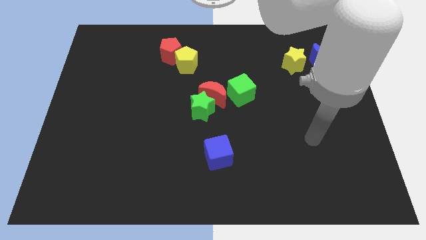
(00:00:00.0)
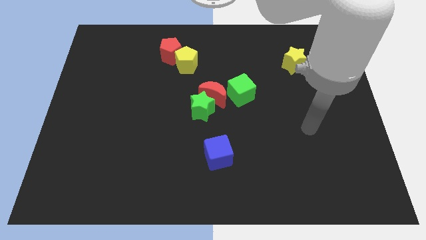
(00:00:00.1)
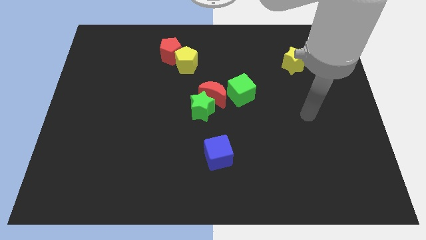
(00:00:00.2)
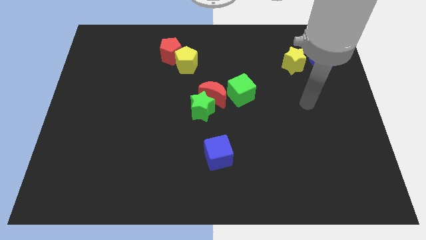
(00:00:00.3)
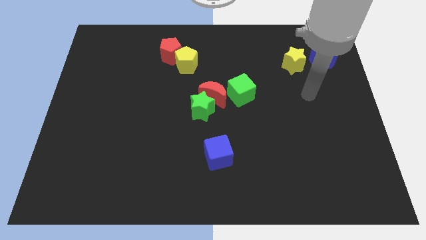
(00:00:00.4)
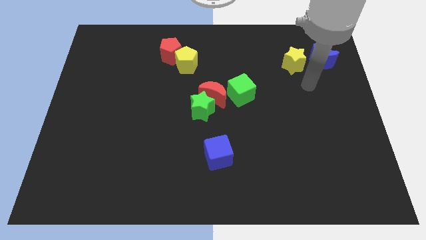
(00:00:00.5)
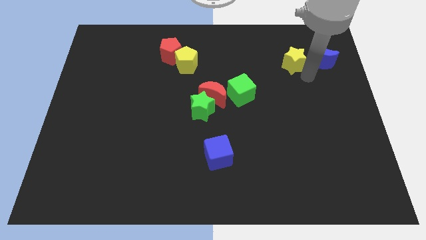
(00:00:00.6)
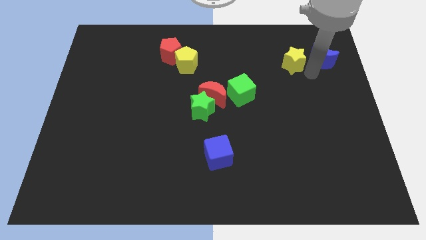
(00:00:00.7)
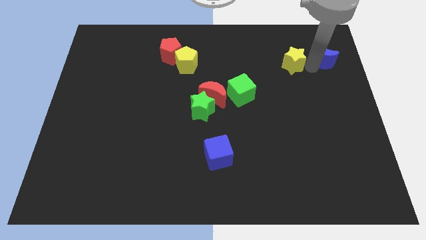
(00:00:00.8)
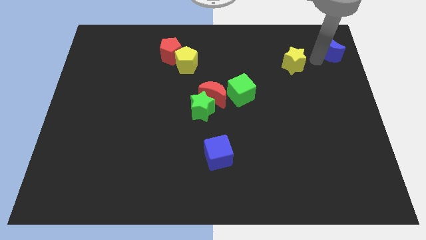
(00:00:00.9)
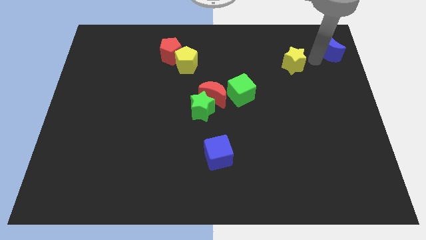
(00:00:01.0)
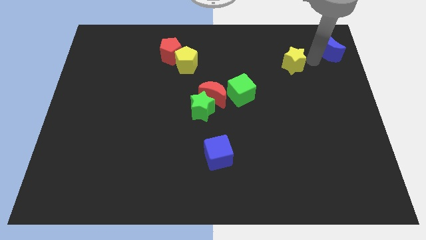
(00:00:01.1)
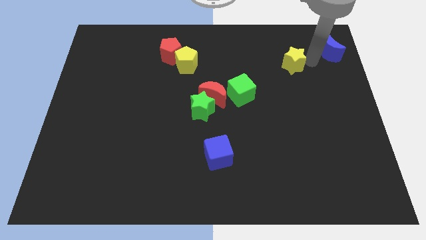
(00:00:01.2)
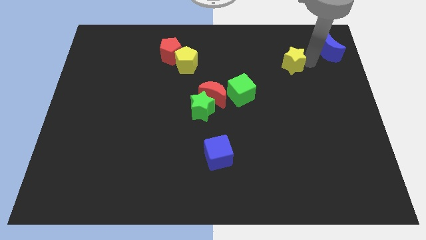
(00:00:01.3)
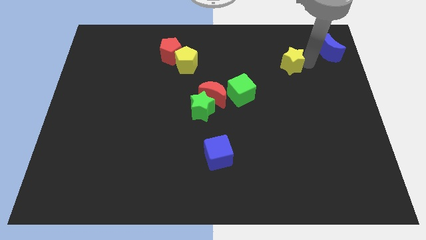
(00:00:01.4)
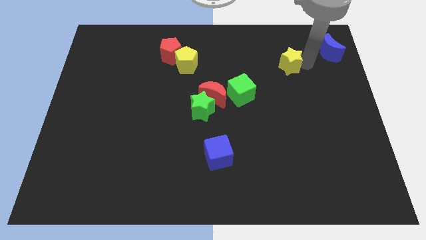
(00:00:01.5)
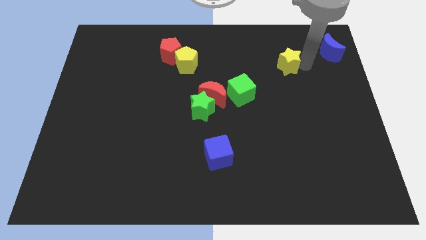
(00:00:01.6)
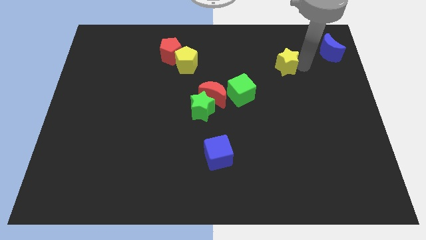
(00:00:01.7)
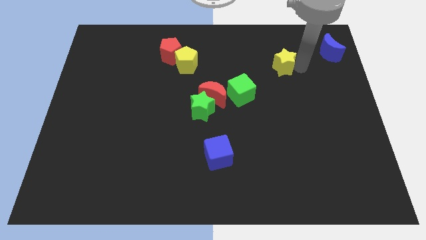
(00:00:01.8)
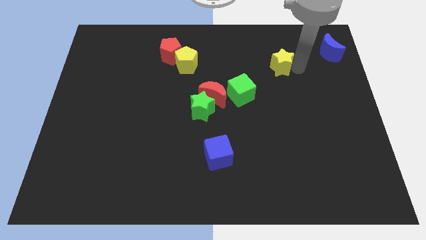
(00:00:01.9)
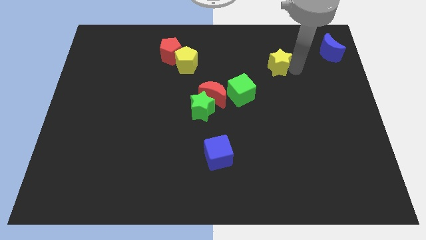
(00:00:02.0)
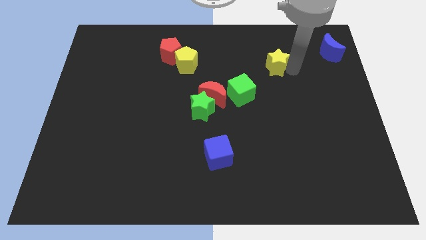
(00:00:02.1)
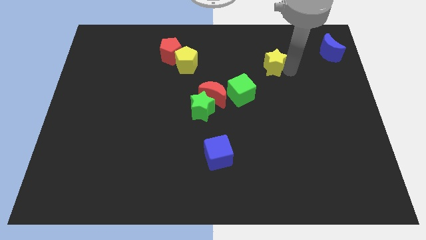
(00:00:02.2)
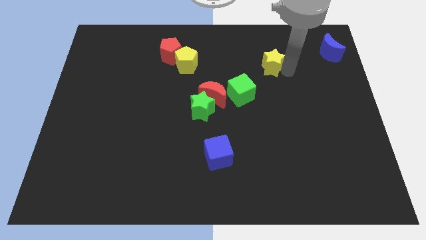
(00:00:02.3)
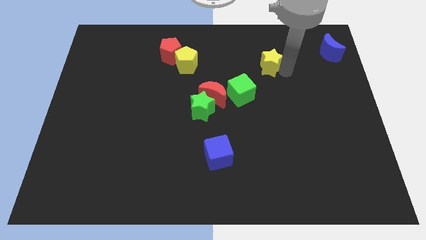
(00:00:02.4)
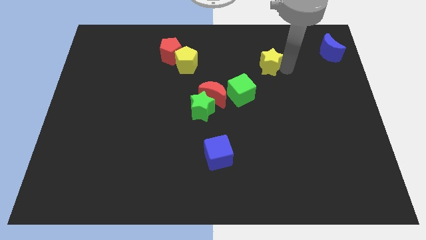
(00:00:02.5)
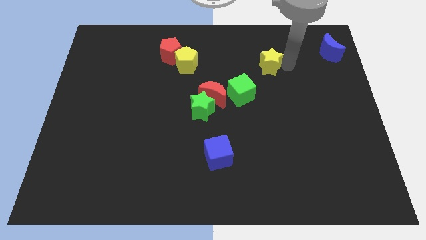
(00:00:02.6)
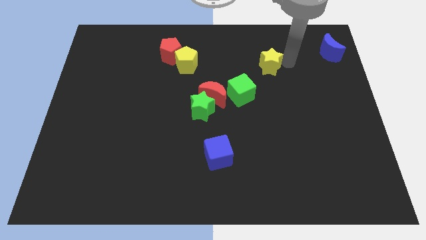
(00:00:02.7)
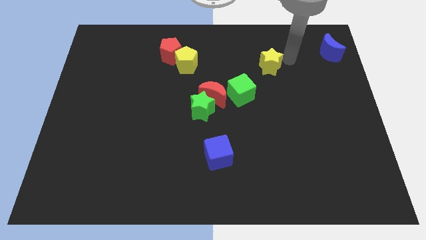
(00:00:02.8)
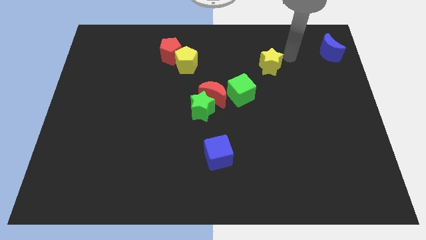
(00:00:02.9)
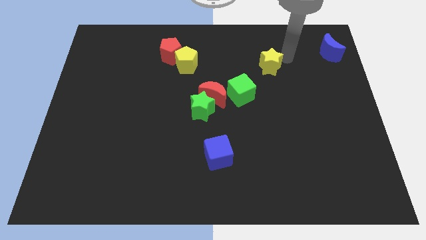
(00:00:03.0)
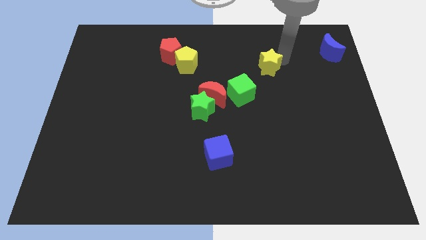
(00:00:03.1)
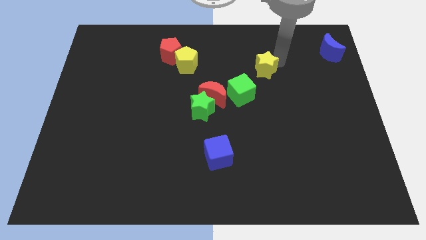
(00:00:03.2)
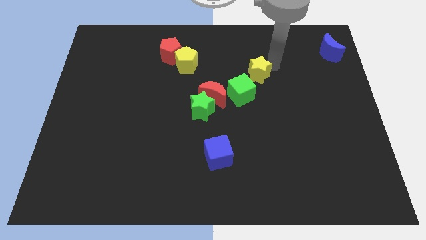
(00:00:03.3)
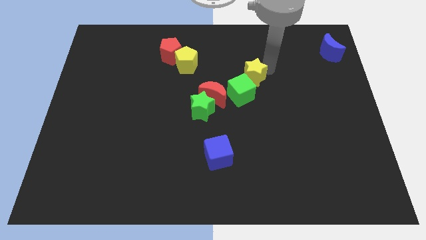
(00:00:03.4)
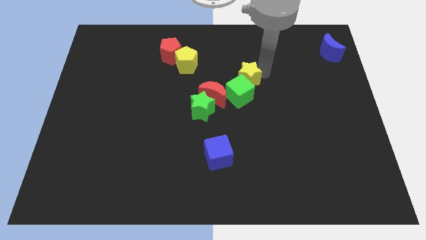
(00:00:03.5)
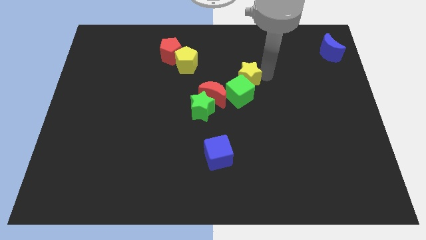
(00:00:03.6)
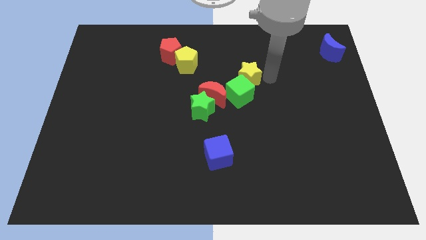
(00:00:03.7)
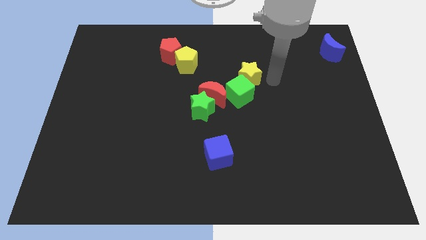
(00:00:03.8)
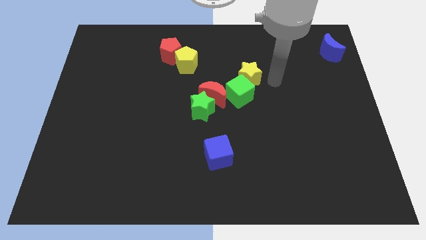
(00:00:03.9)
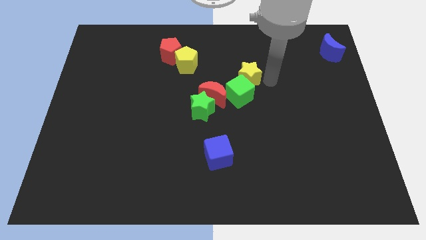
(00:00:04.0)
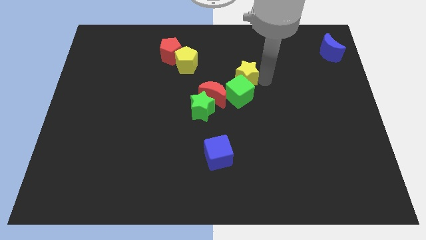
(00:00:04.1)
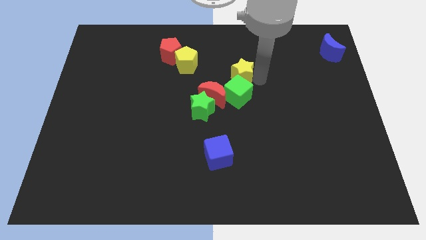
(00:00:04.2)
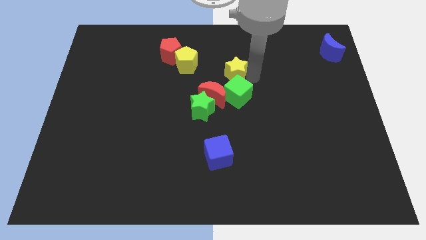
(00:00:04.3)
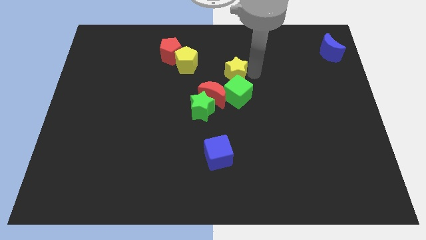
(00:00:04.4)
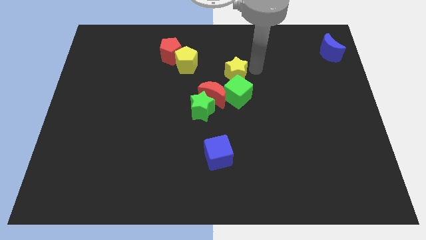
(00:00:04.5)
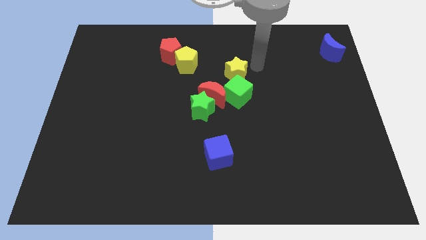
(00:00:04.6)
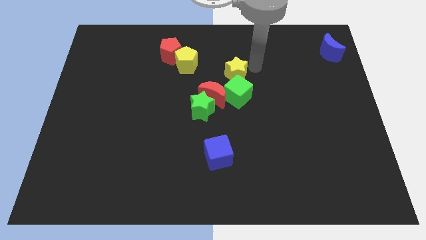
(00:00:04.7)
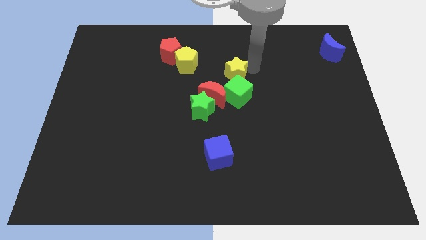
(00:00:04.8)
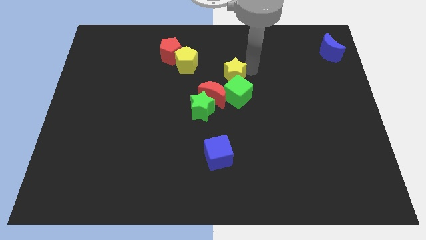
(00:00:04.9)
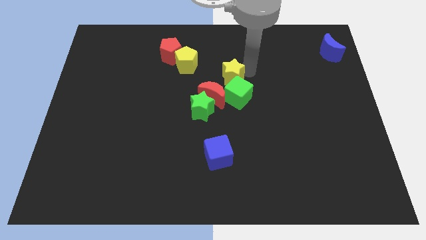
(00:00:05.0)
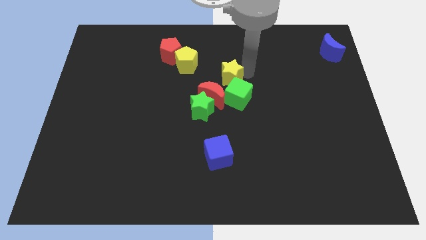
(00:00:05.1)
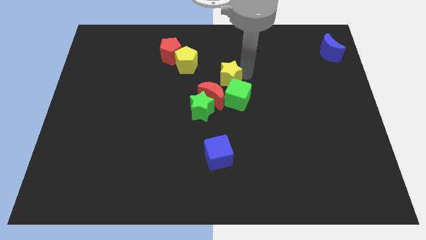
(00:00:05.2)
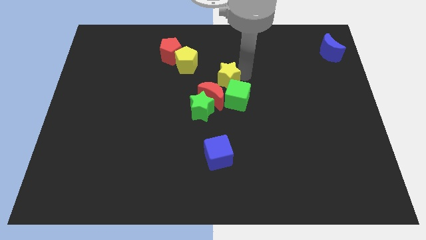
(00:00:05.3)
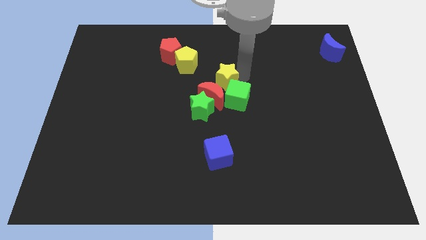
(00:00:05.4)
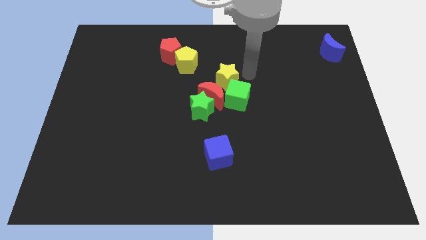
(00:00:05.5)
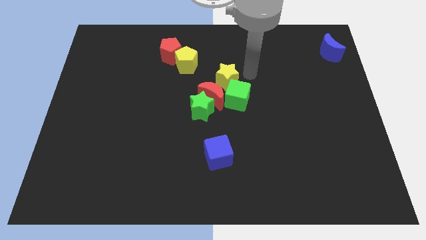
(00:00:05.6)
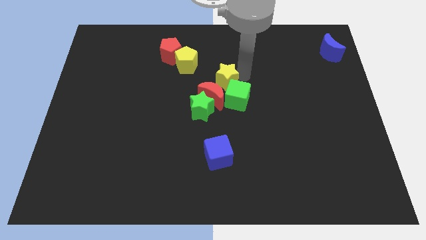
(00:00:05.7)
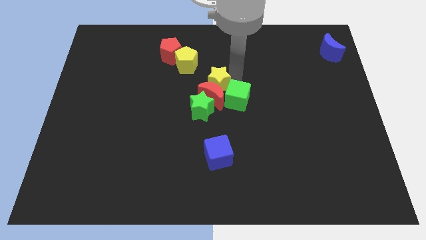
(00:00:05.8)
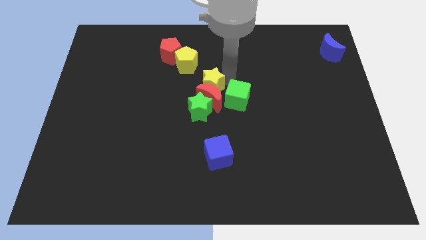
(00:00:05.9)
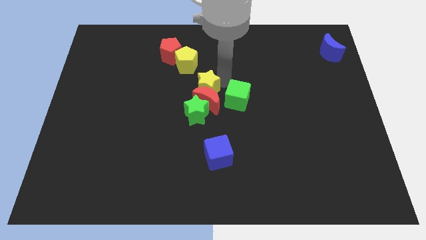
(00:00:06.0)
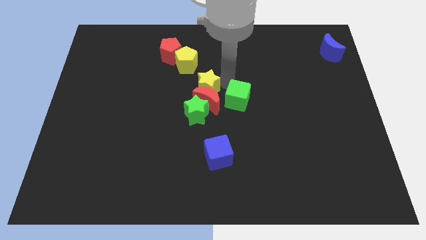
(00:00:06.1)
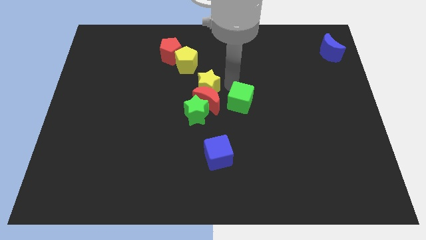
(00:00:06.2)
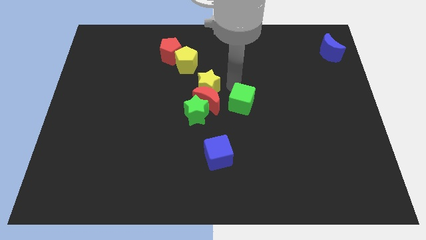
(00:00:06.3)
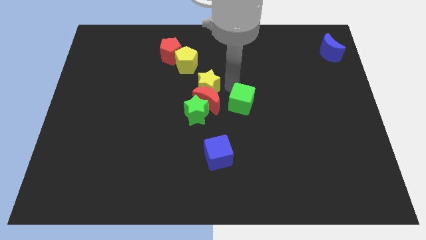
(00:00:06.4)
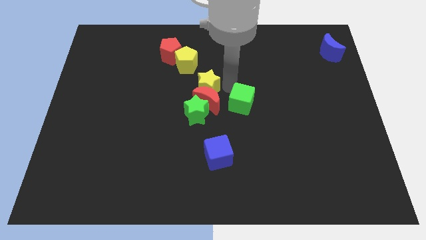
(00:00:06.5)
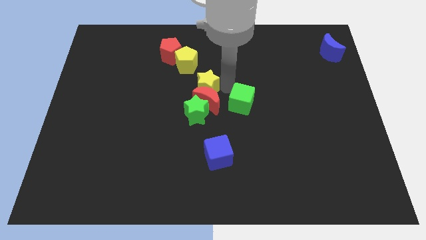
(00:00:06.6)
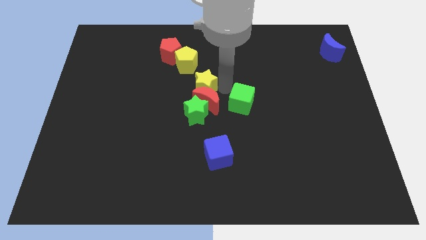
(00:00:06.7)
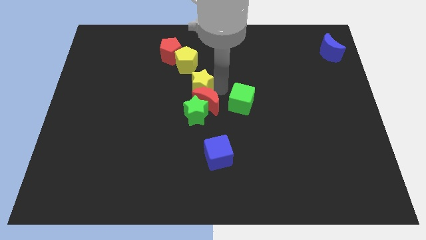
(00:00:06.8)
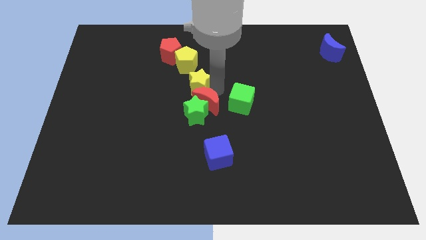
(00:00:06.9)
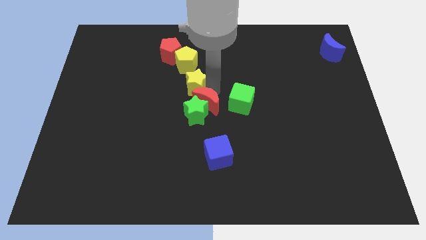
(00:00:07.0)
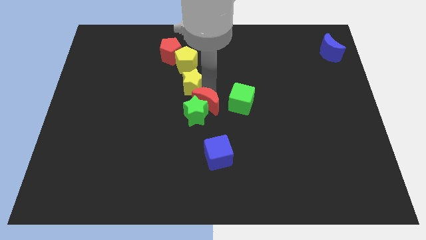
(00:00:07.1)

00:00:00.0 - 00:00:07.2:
push the yellow star to the left side of the red moon
